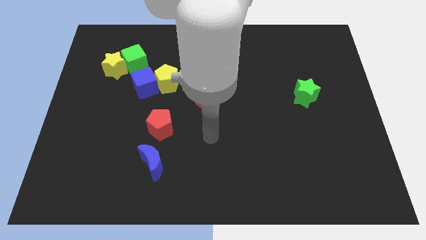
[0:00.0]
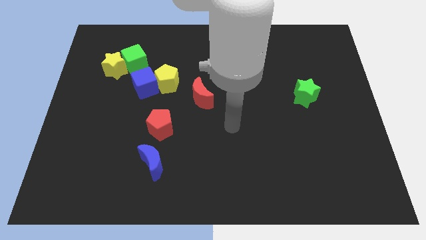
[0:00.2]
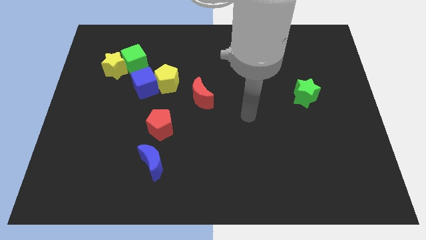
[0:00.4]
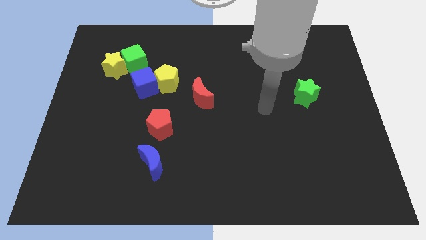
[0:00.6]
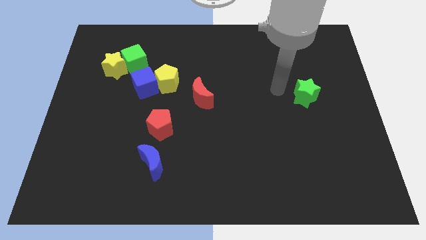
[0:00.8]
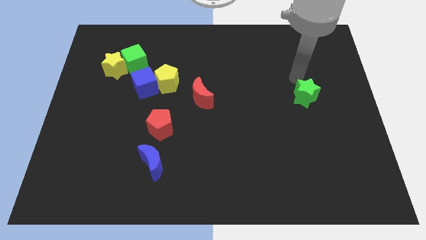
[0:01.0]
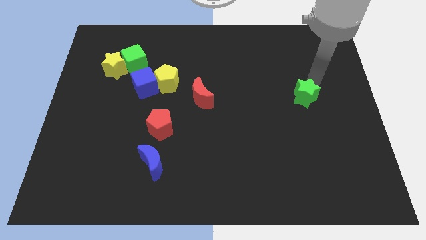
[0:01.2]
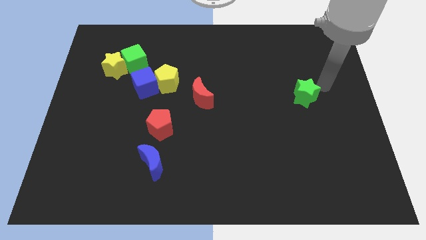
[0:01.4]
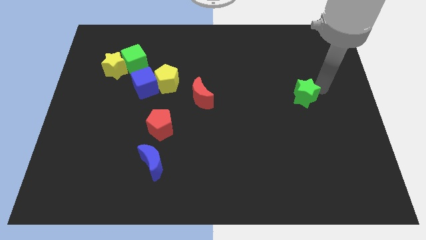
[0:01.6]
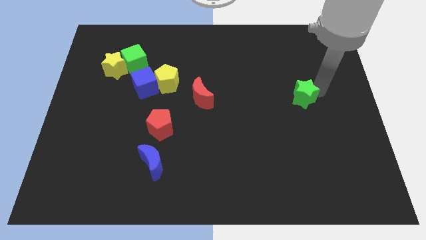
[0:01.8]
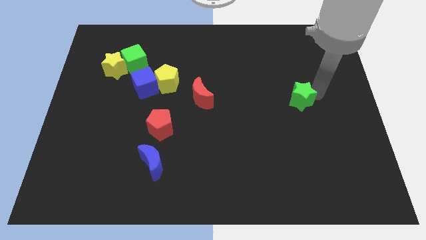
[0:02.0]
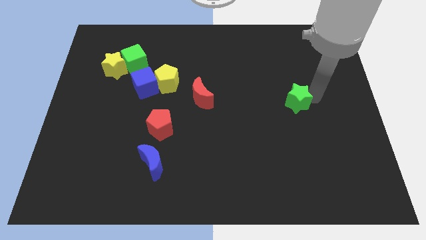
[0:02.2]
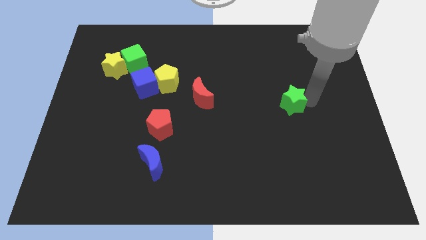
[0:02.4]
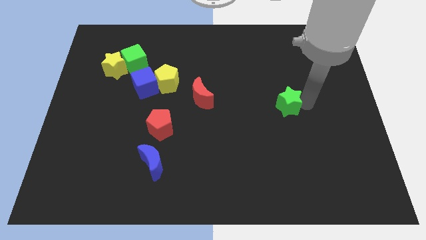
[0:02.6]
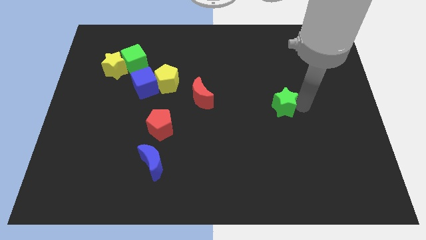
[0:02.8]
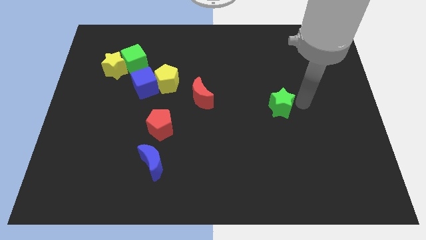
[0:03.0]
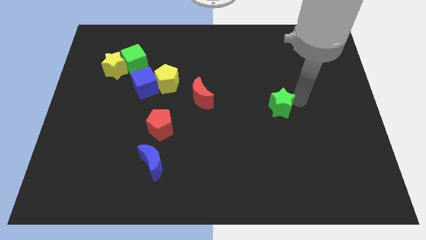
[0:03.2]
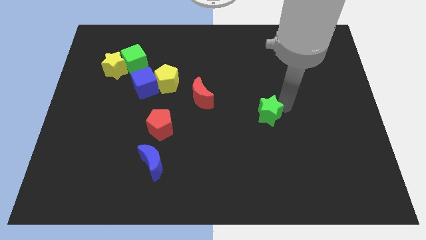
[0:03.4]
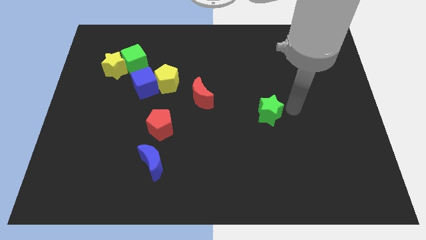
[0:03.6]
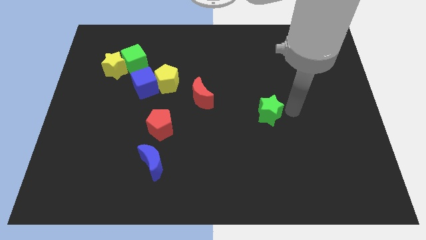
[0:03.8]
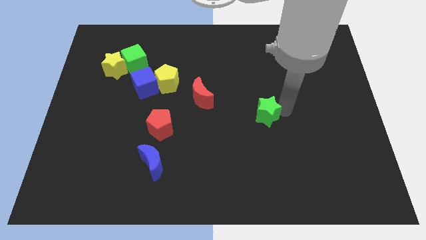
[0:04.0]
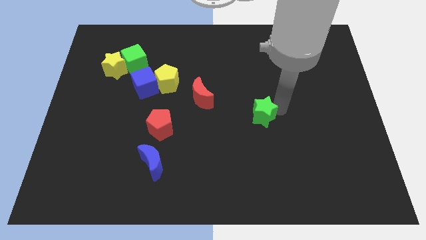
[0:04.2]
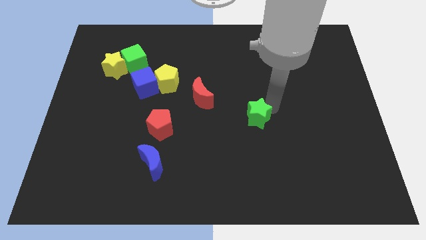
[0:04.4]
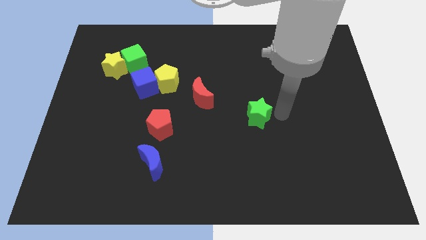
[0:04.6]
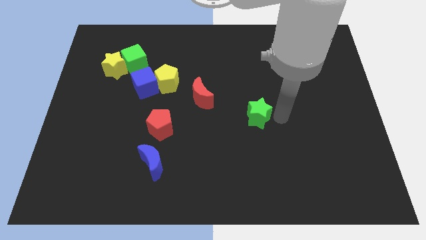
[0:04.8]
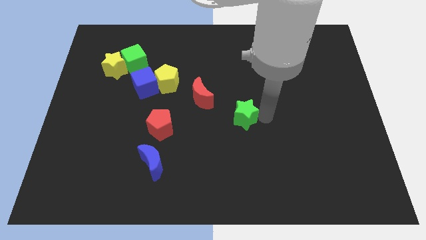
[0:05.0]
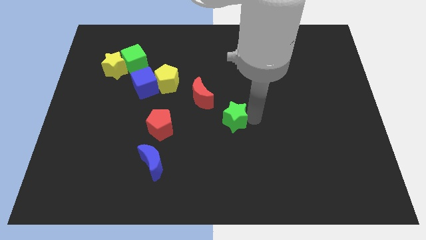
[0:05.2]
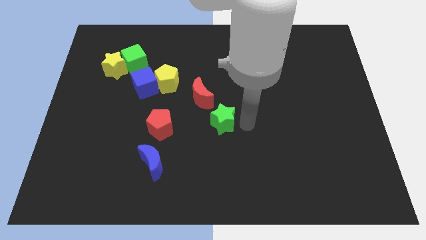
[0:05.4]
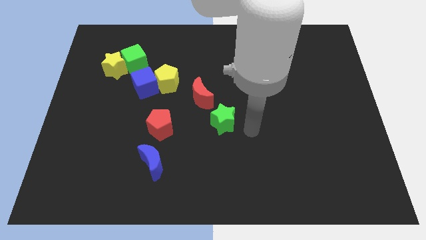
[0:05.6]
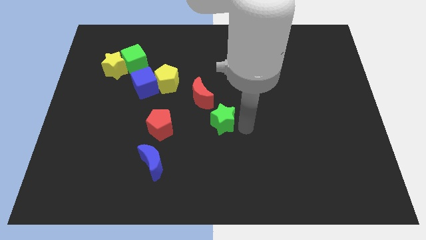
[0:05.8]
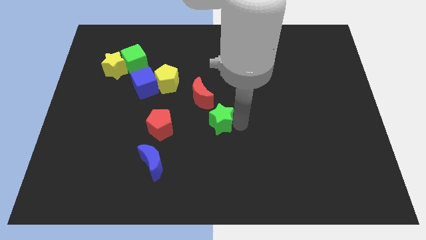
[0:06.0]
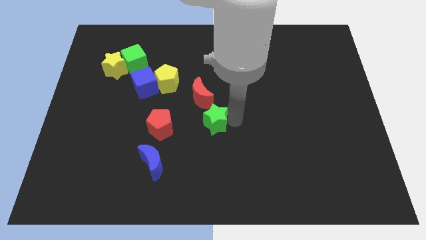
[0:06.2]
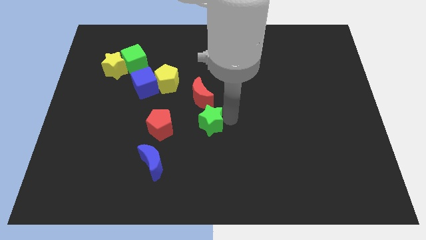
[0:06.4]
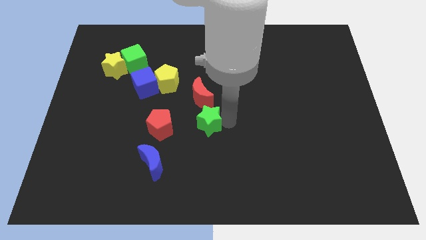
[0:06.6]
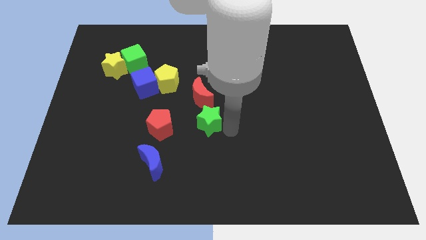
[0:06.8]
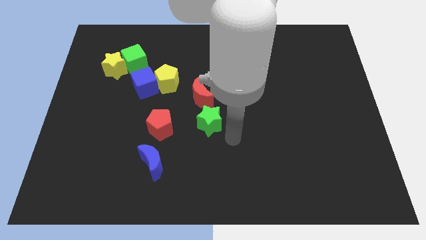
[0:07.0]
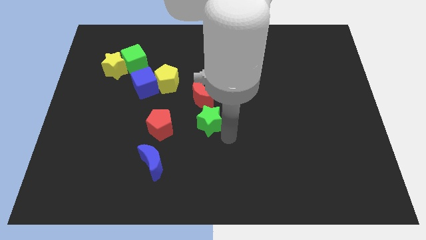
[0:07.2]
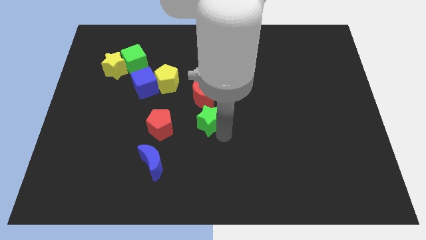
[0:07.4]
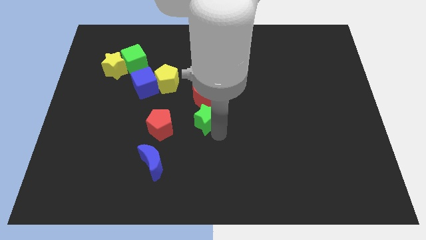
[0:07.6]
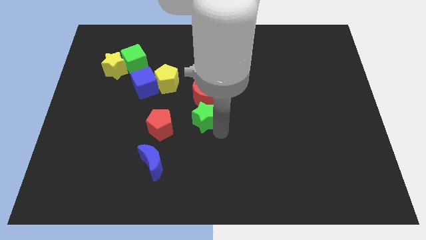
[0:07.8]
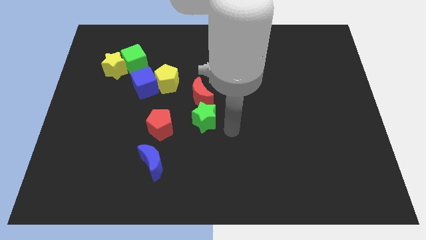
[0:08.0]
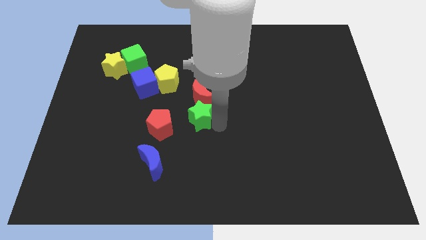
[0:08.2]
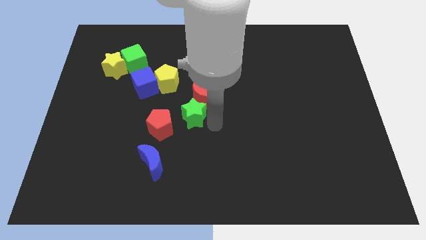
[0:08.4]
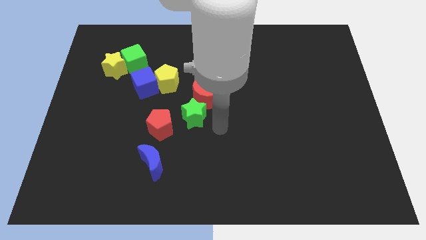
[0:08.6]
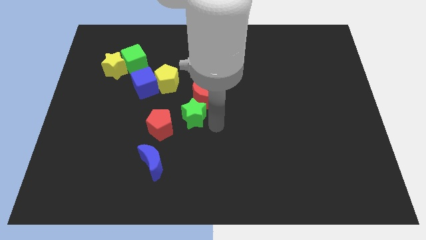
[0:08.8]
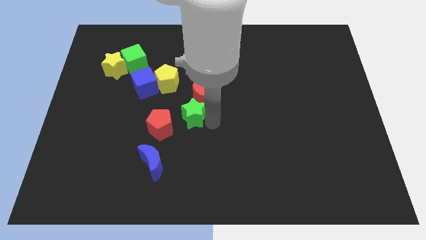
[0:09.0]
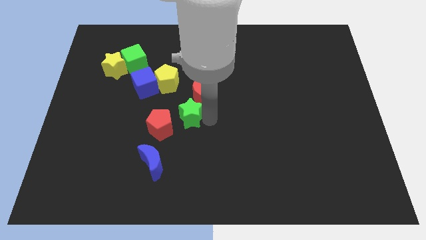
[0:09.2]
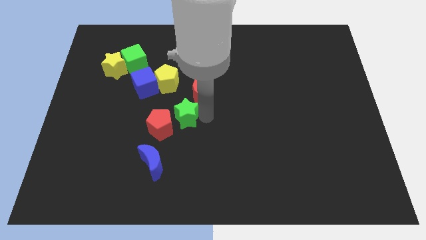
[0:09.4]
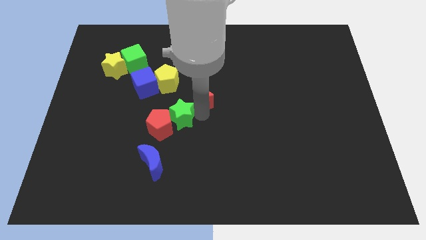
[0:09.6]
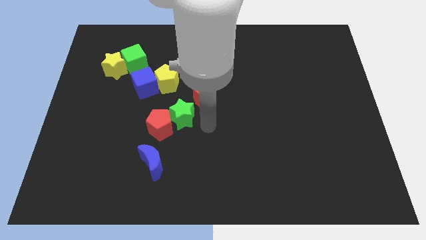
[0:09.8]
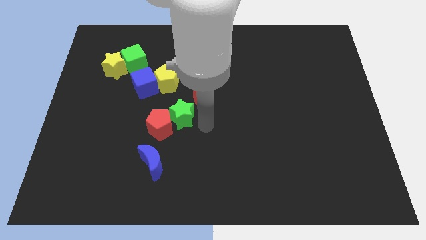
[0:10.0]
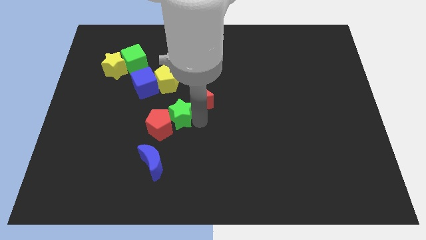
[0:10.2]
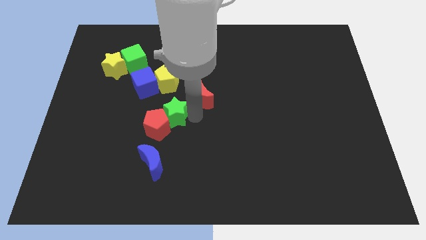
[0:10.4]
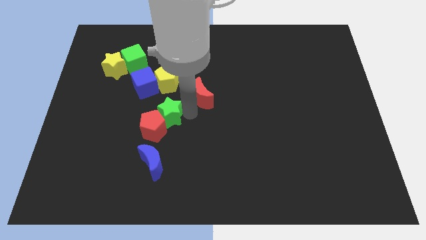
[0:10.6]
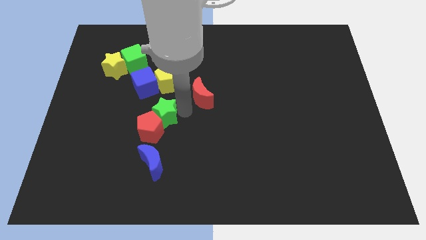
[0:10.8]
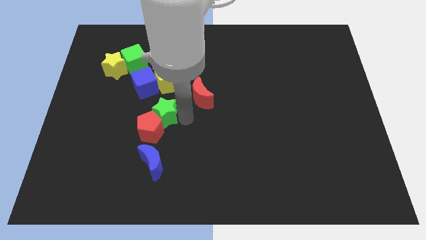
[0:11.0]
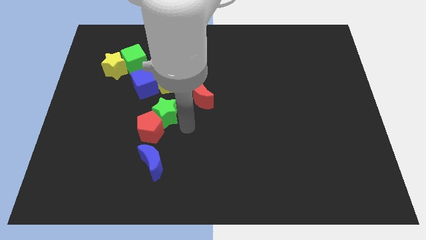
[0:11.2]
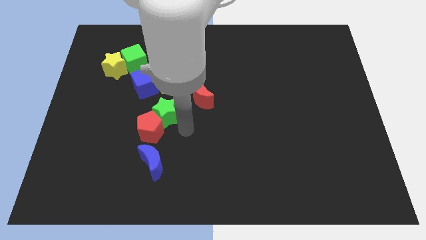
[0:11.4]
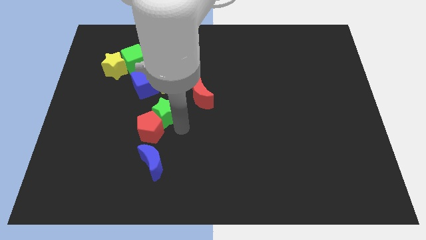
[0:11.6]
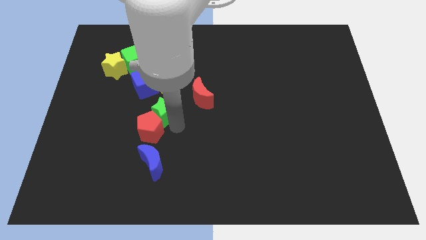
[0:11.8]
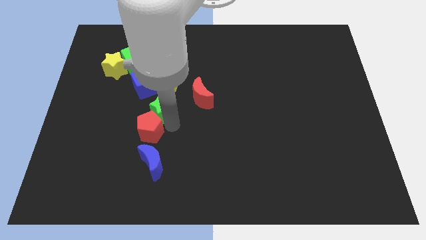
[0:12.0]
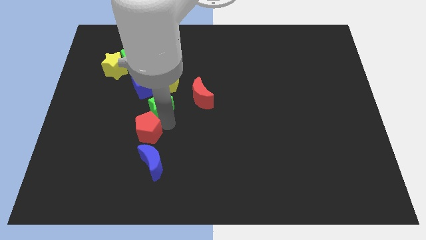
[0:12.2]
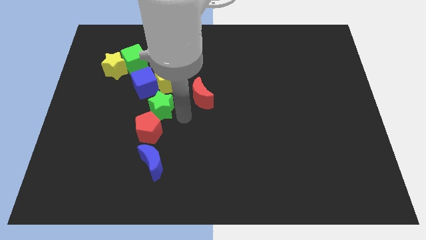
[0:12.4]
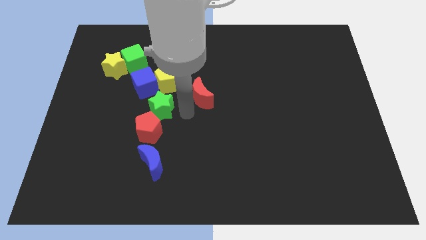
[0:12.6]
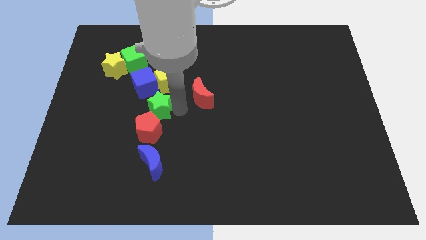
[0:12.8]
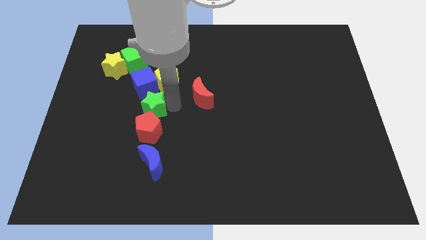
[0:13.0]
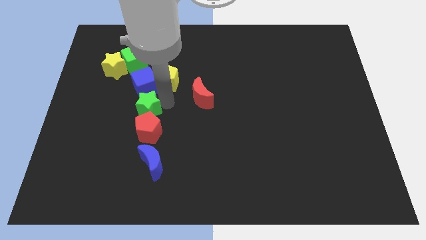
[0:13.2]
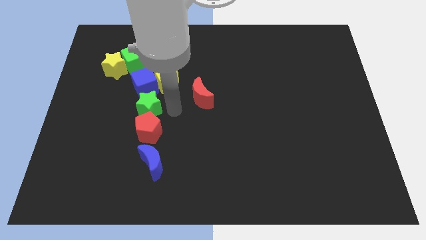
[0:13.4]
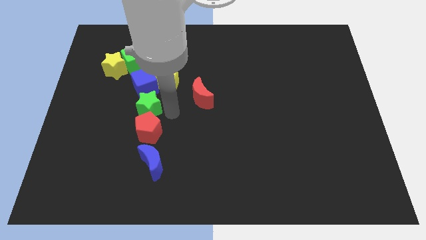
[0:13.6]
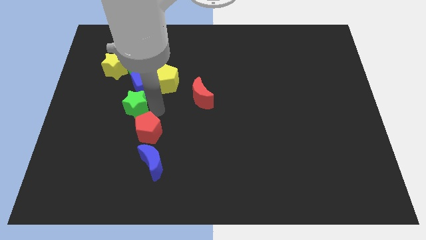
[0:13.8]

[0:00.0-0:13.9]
slide the green star diagonally down and to the left of the blue cube
